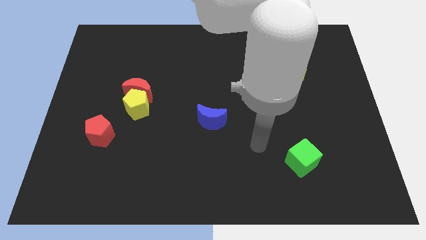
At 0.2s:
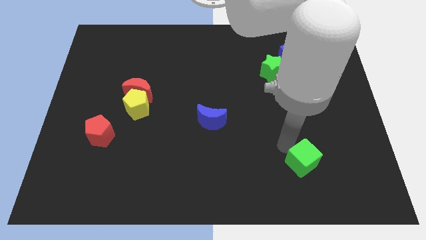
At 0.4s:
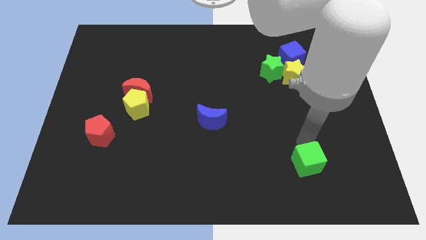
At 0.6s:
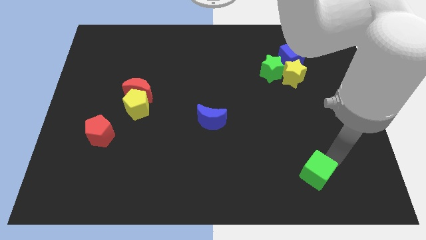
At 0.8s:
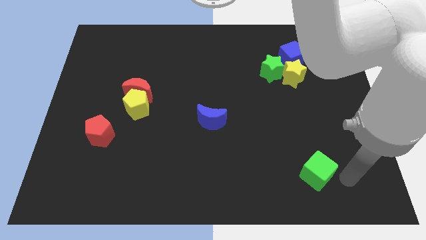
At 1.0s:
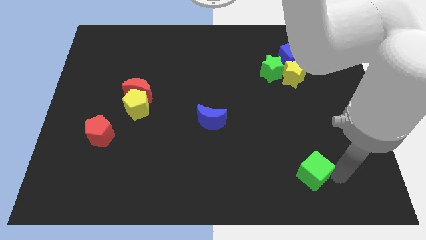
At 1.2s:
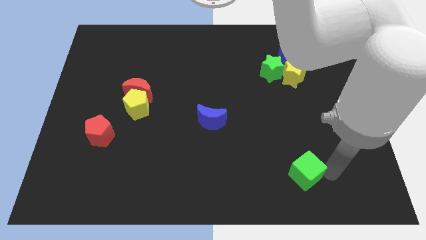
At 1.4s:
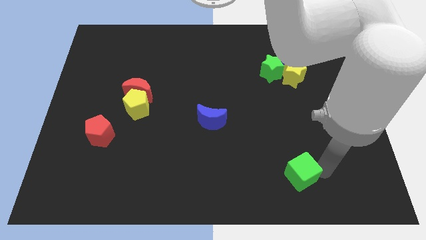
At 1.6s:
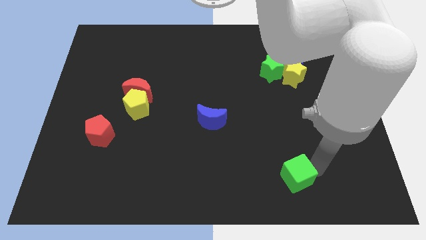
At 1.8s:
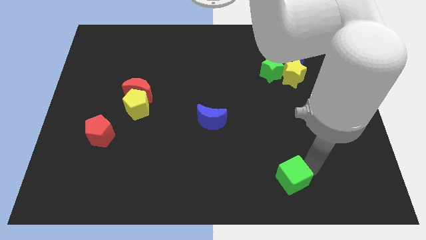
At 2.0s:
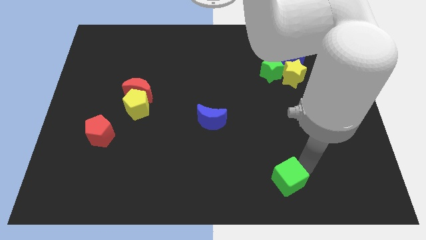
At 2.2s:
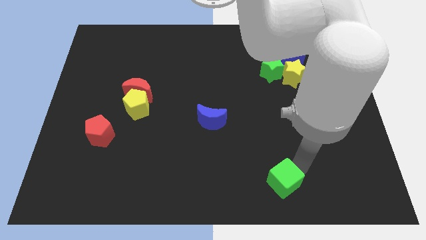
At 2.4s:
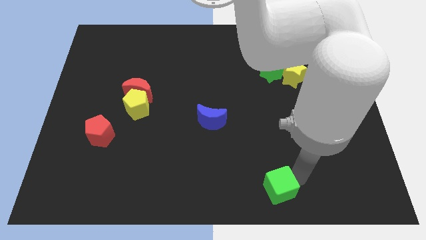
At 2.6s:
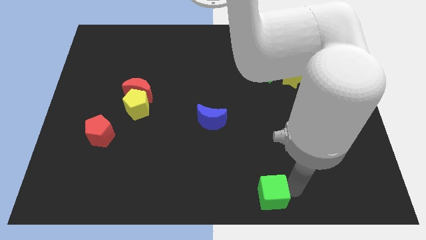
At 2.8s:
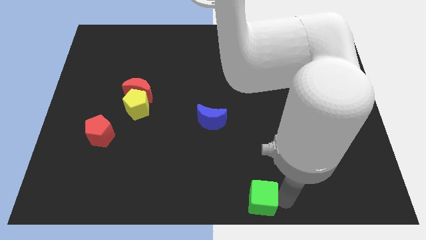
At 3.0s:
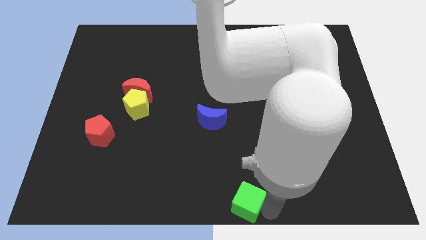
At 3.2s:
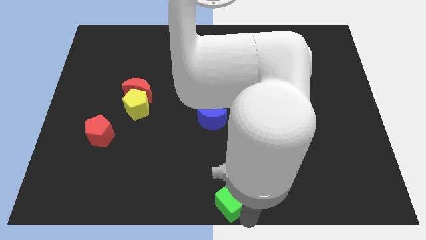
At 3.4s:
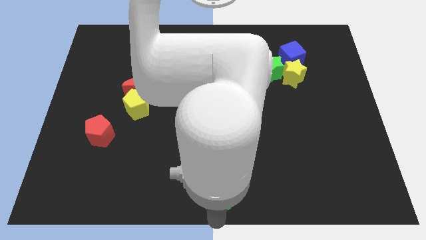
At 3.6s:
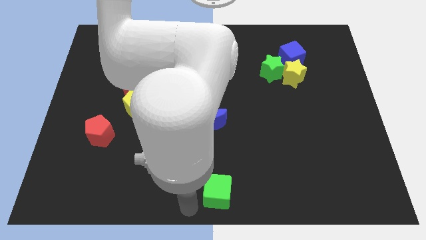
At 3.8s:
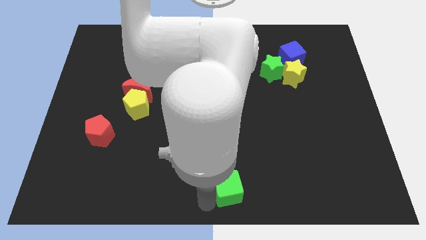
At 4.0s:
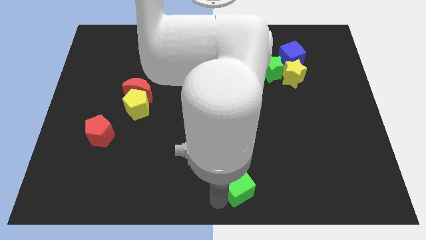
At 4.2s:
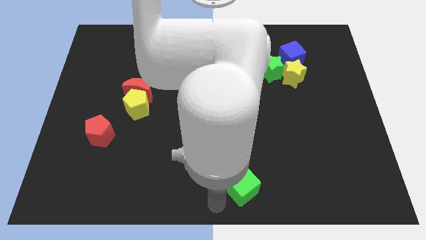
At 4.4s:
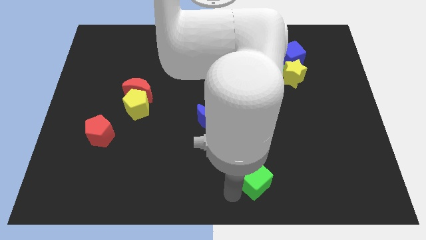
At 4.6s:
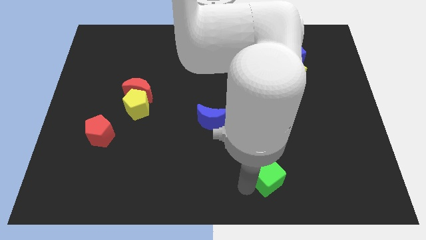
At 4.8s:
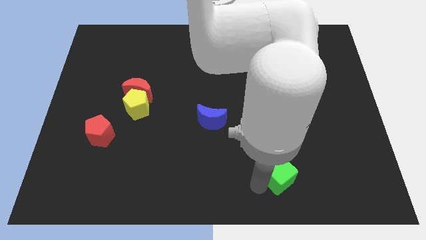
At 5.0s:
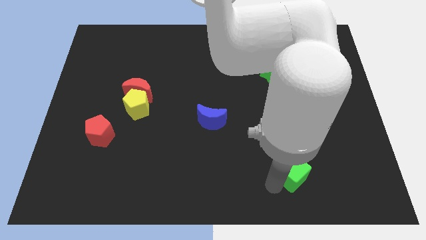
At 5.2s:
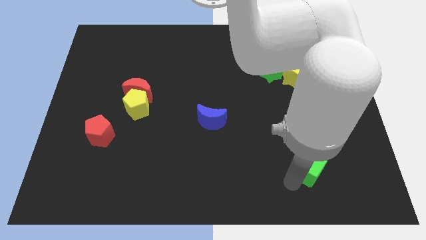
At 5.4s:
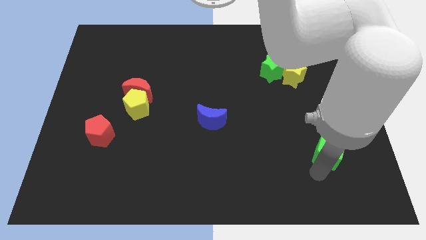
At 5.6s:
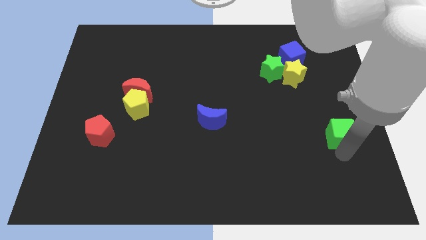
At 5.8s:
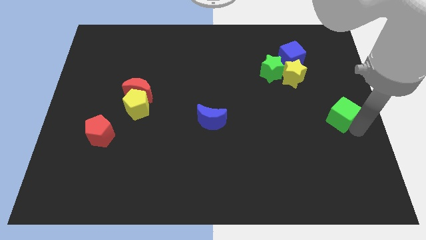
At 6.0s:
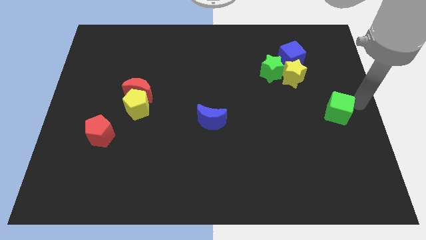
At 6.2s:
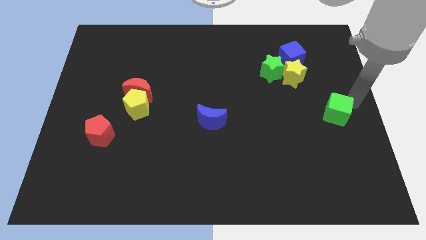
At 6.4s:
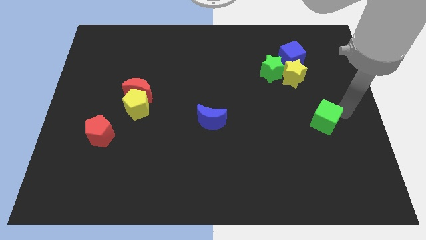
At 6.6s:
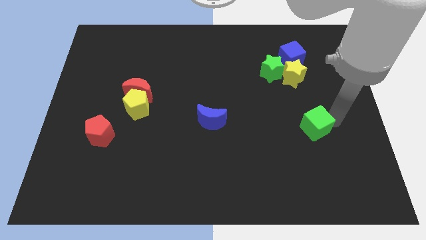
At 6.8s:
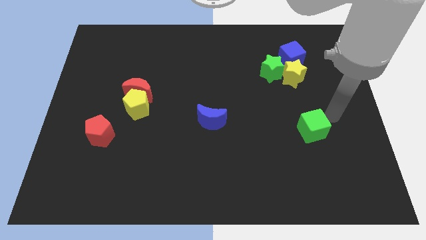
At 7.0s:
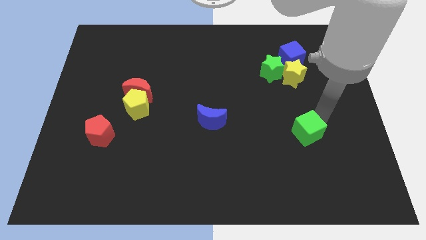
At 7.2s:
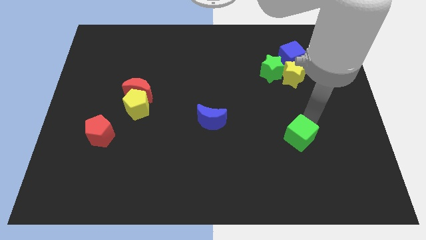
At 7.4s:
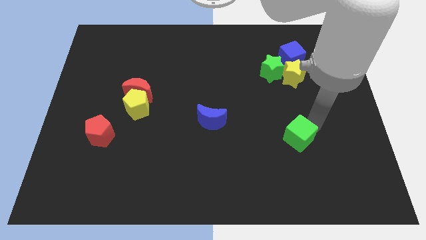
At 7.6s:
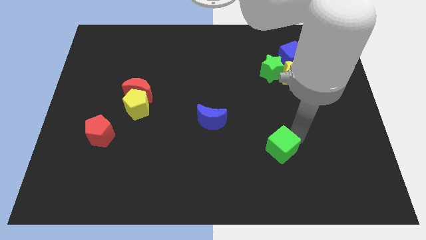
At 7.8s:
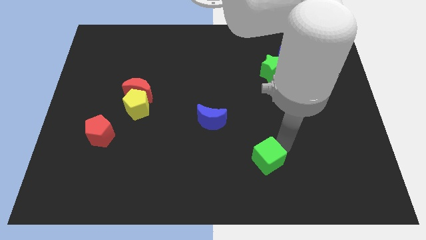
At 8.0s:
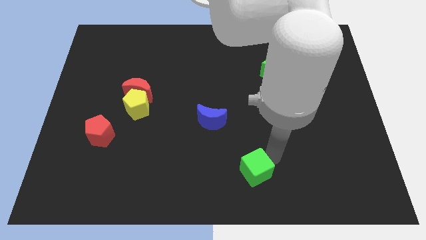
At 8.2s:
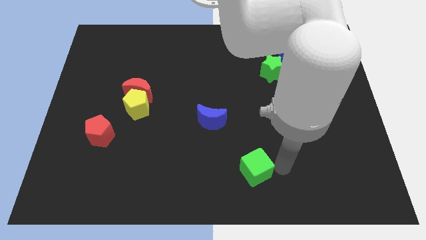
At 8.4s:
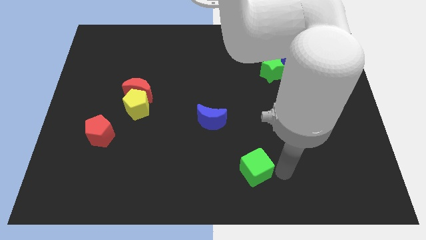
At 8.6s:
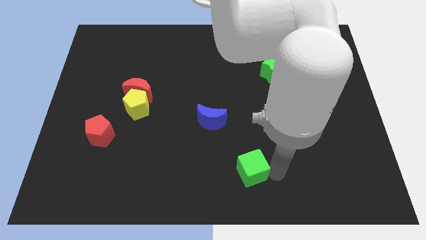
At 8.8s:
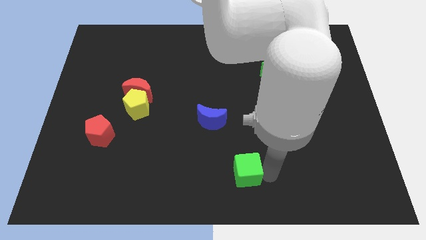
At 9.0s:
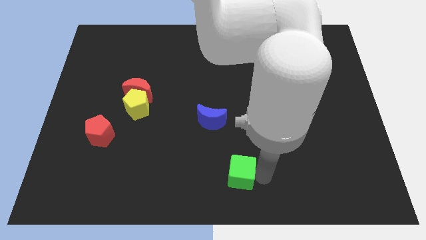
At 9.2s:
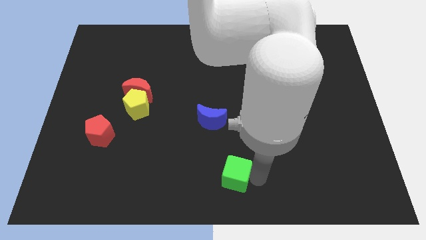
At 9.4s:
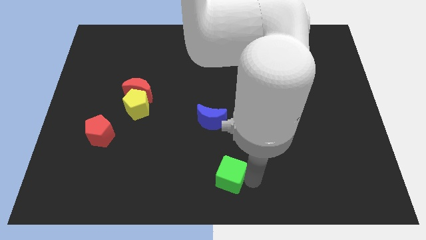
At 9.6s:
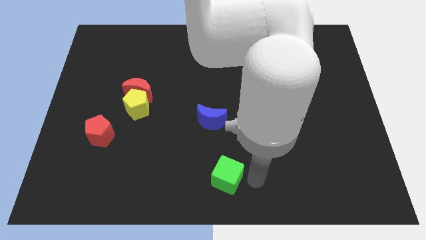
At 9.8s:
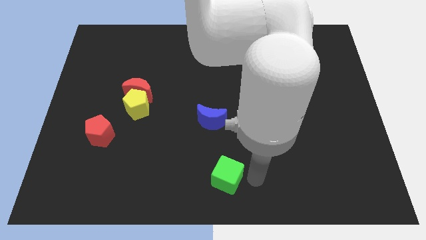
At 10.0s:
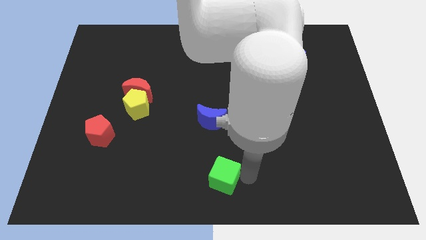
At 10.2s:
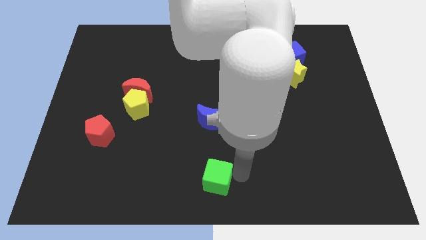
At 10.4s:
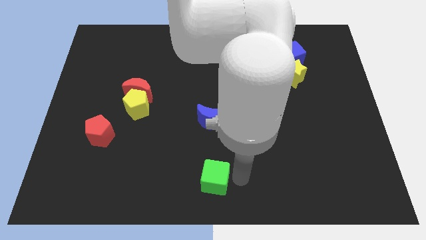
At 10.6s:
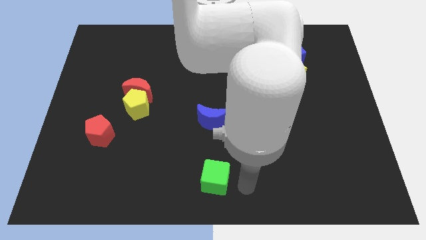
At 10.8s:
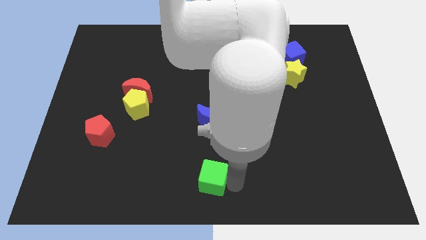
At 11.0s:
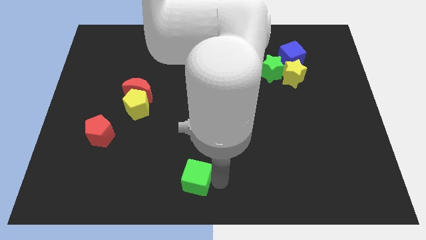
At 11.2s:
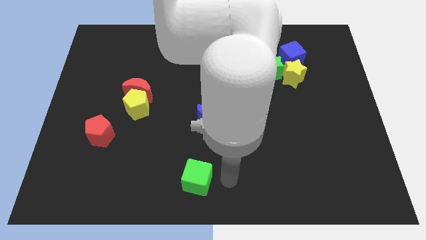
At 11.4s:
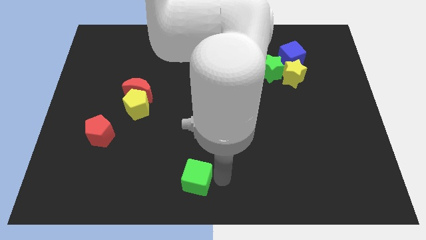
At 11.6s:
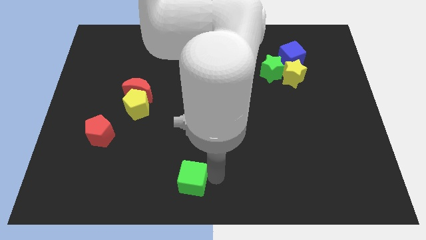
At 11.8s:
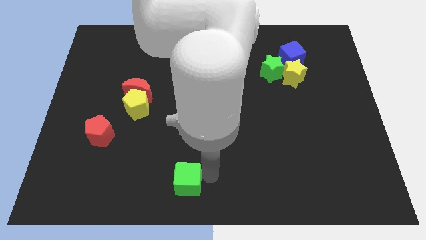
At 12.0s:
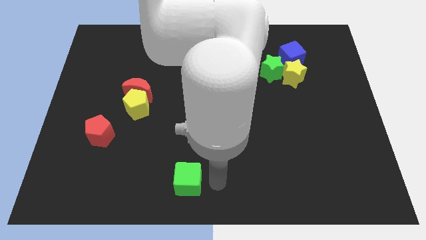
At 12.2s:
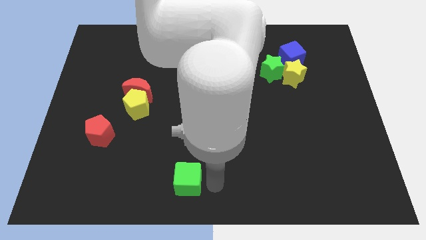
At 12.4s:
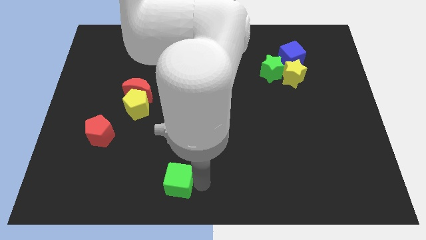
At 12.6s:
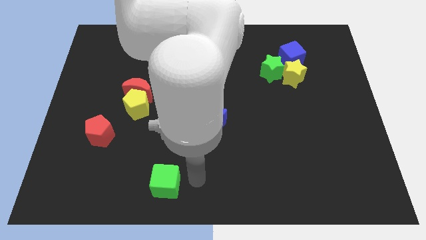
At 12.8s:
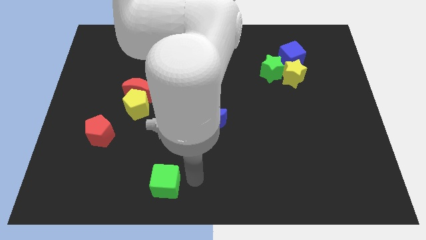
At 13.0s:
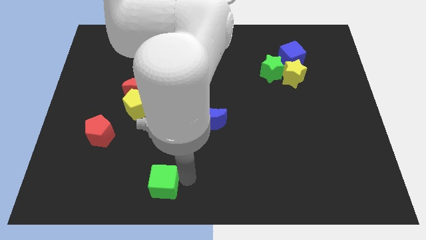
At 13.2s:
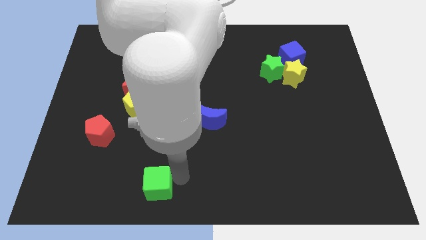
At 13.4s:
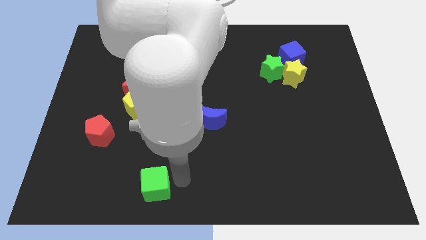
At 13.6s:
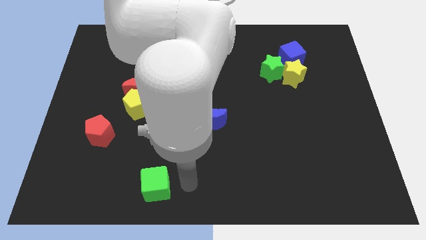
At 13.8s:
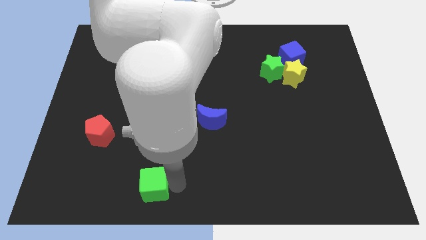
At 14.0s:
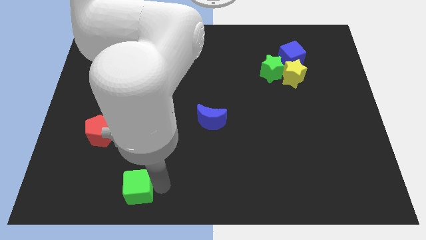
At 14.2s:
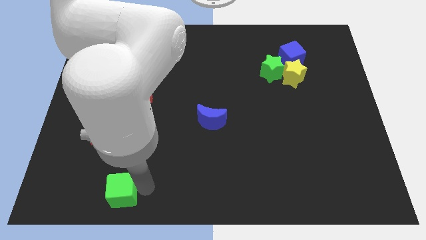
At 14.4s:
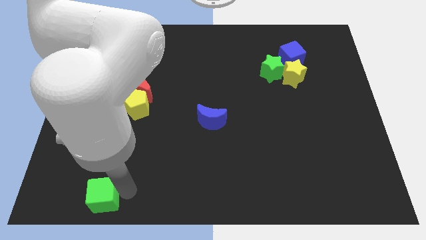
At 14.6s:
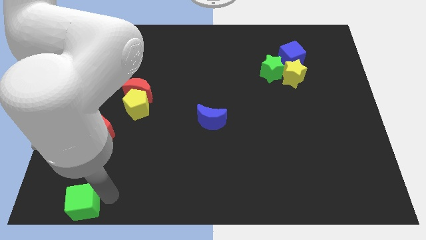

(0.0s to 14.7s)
put the green cube to the bottom left
